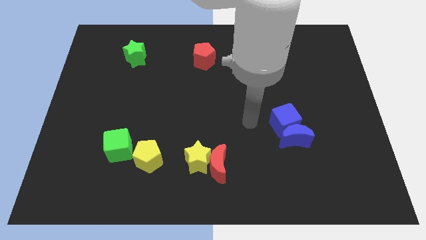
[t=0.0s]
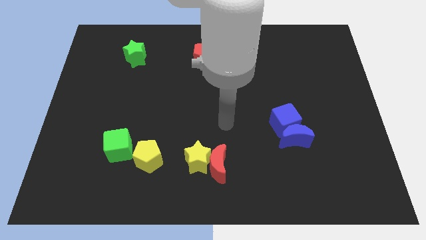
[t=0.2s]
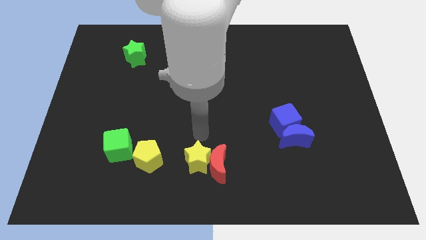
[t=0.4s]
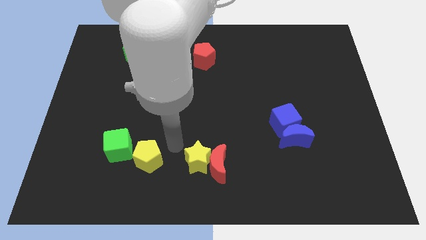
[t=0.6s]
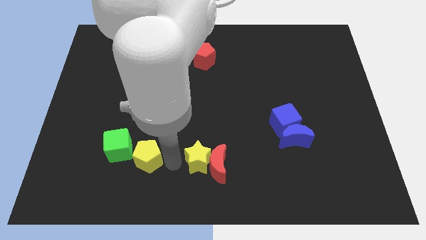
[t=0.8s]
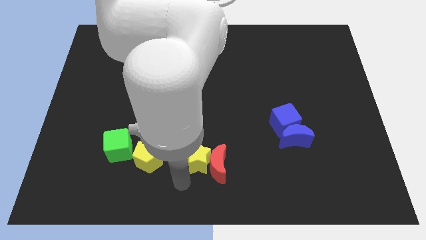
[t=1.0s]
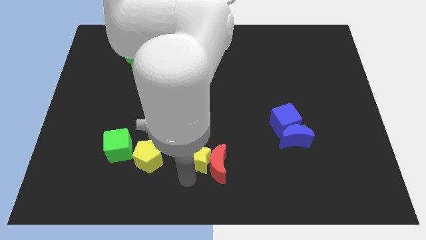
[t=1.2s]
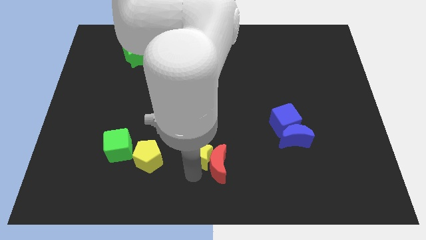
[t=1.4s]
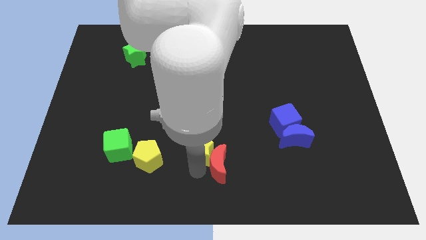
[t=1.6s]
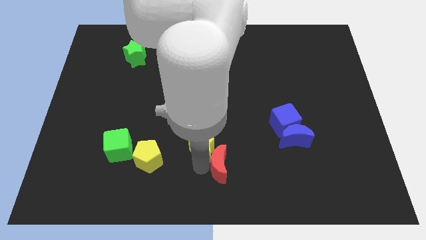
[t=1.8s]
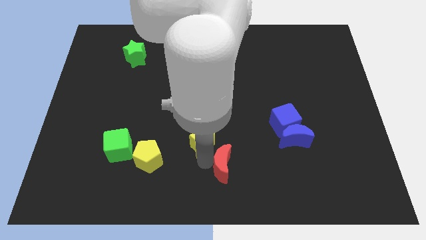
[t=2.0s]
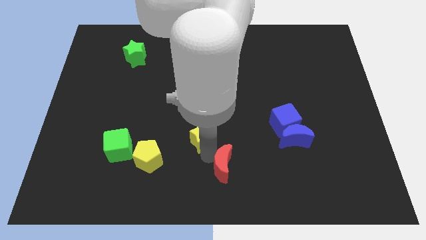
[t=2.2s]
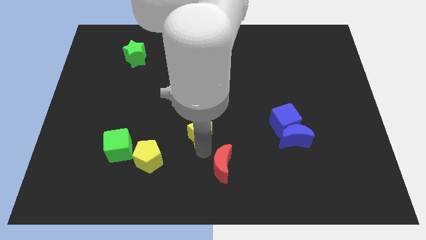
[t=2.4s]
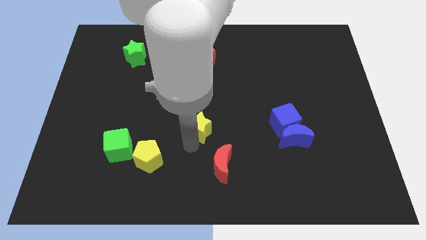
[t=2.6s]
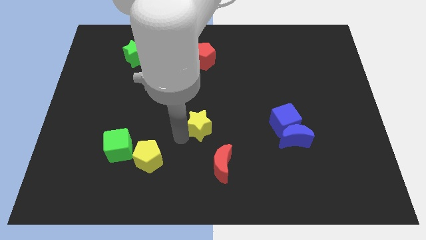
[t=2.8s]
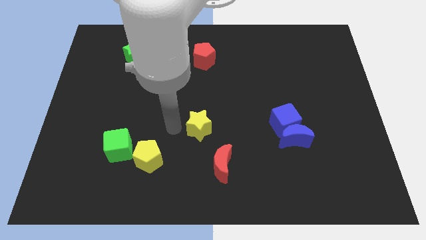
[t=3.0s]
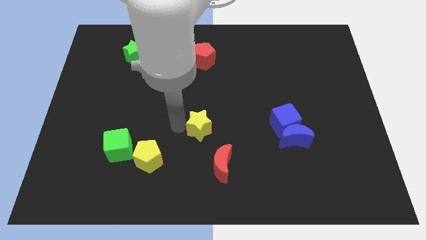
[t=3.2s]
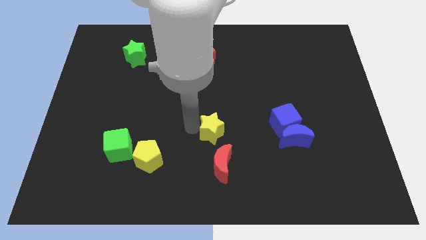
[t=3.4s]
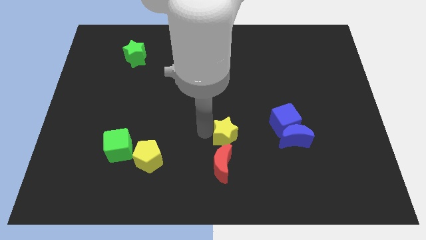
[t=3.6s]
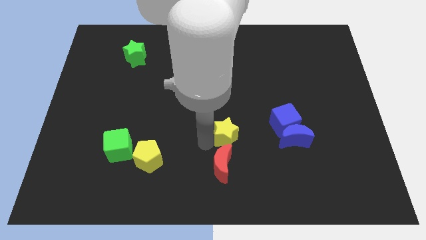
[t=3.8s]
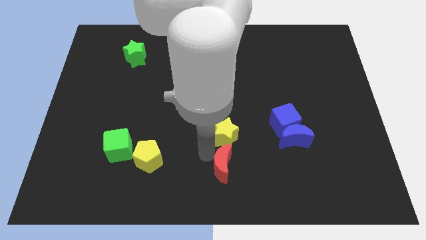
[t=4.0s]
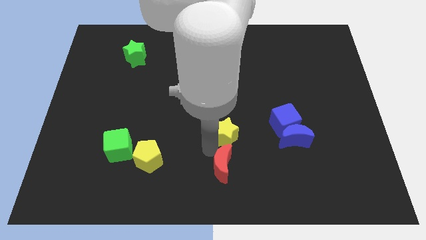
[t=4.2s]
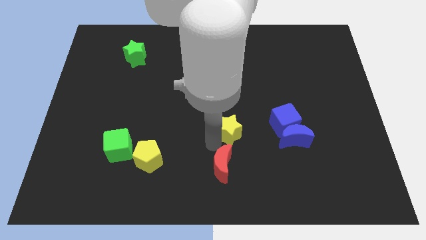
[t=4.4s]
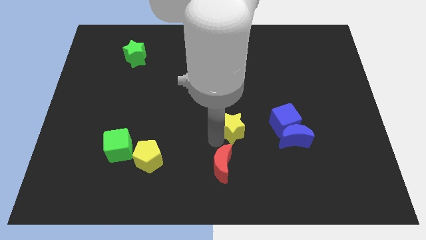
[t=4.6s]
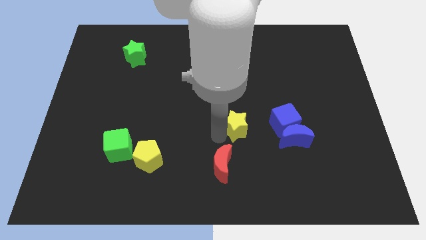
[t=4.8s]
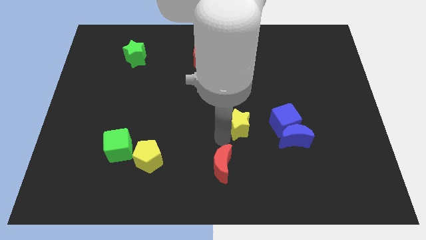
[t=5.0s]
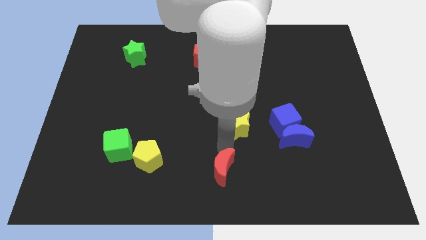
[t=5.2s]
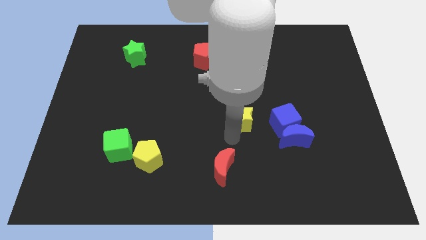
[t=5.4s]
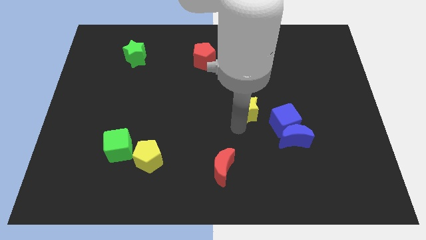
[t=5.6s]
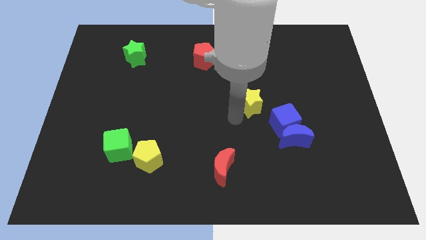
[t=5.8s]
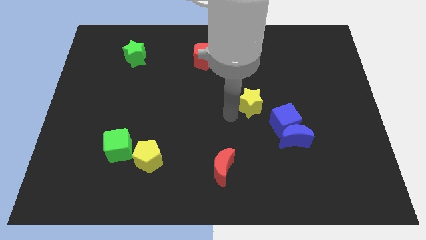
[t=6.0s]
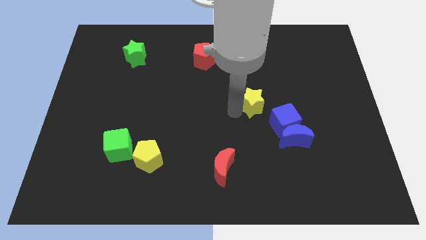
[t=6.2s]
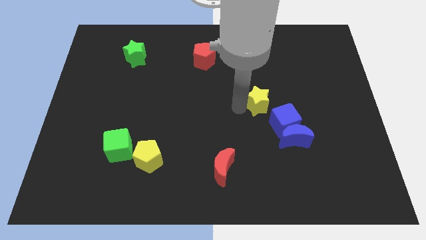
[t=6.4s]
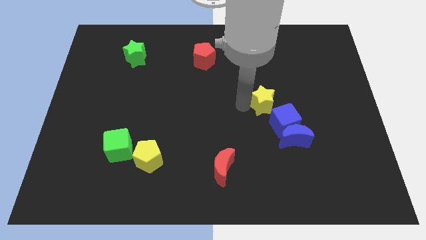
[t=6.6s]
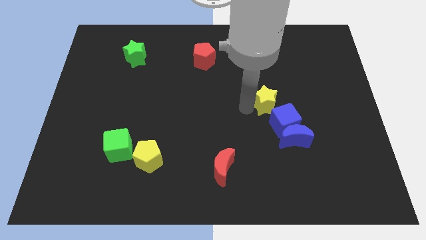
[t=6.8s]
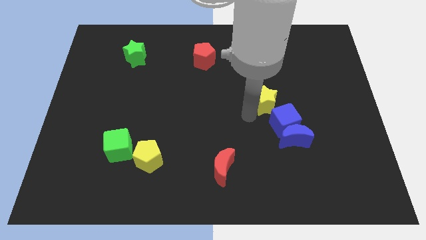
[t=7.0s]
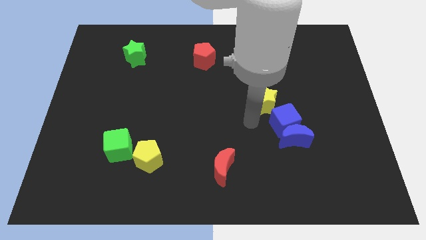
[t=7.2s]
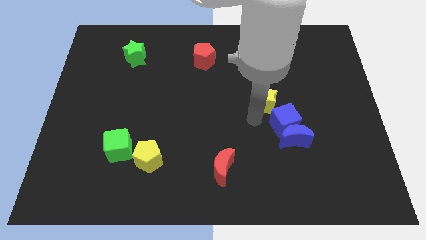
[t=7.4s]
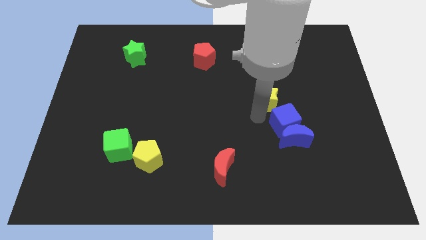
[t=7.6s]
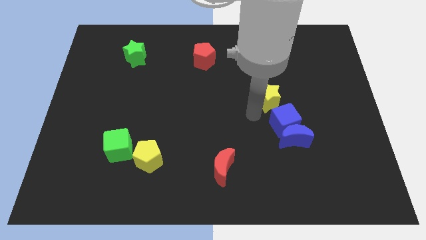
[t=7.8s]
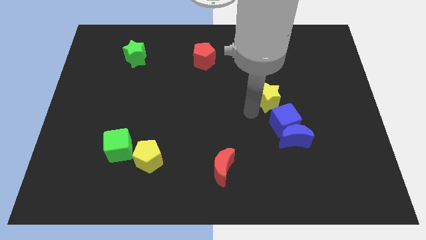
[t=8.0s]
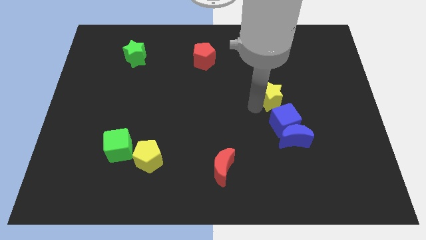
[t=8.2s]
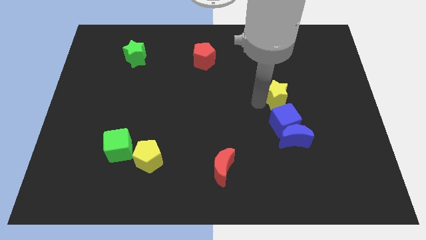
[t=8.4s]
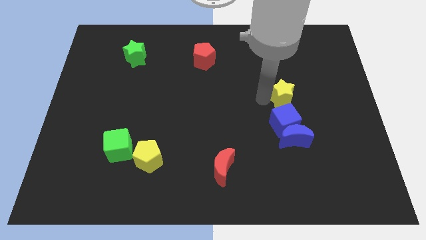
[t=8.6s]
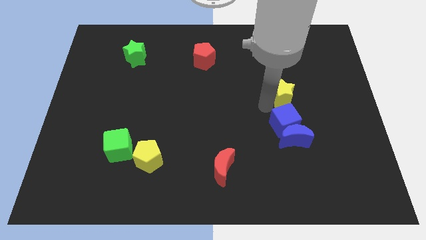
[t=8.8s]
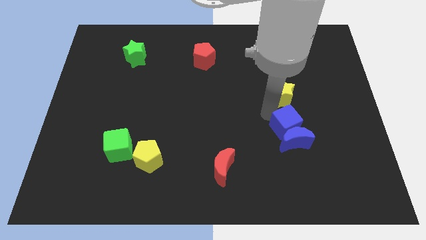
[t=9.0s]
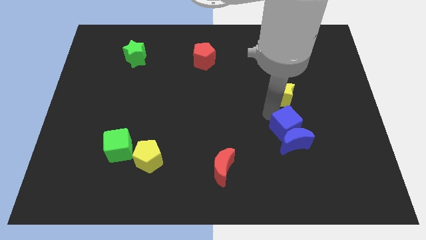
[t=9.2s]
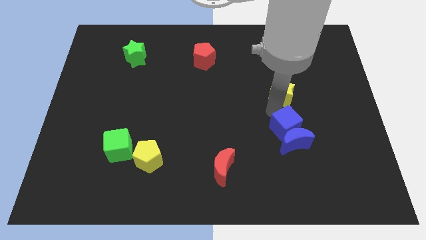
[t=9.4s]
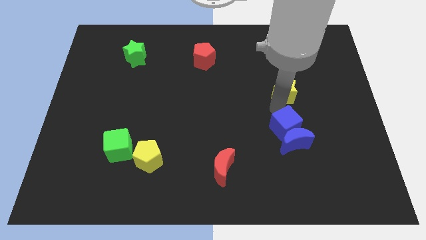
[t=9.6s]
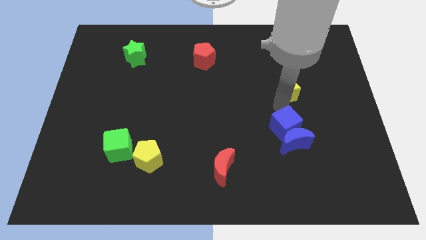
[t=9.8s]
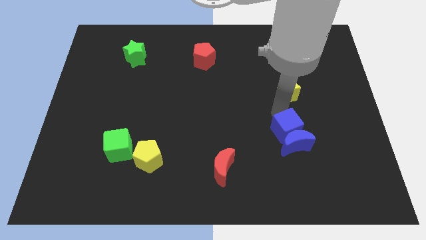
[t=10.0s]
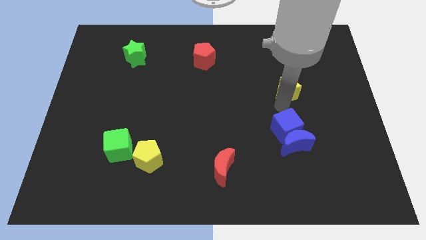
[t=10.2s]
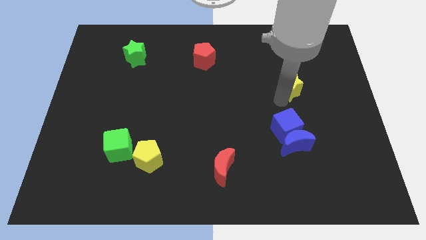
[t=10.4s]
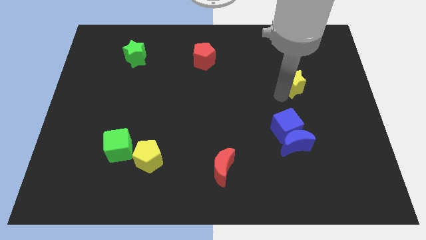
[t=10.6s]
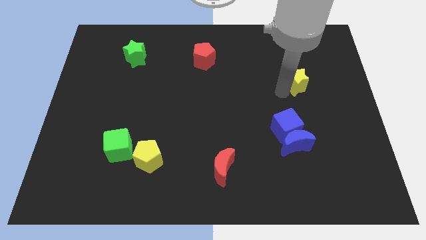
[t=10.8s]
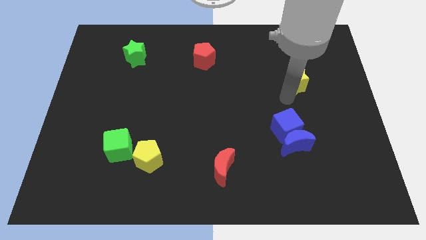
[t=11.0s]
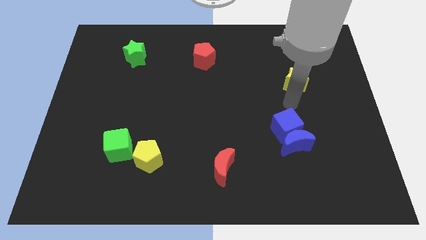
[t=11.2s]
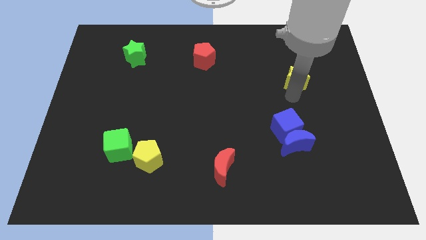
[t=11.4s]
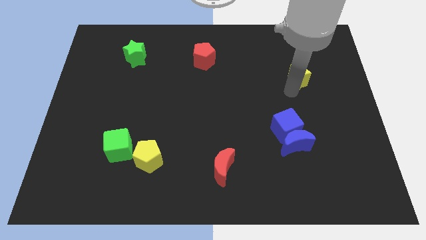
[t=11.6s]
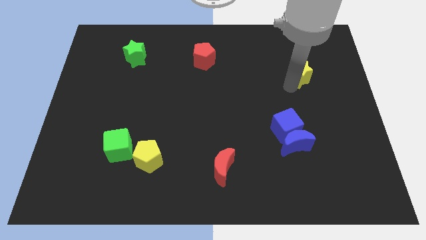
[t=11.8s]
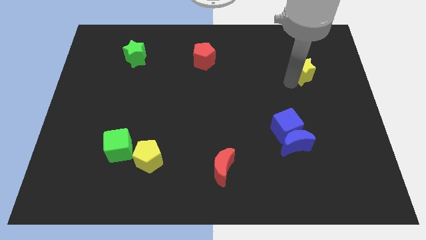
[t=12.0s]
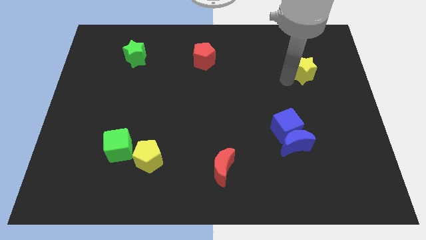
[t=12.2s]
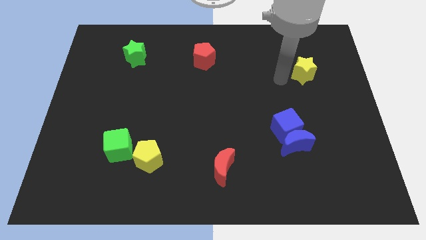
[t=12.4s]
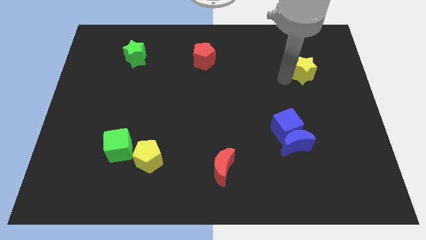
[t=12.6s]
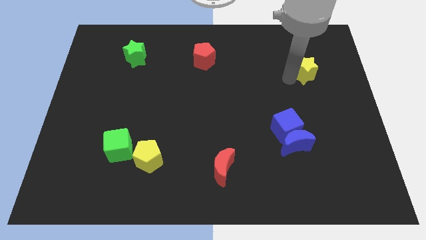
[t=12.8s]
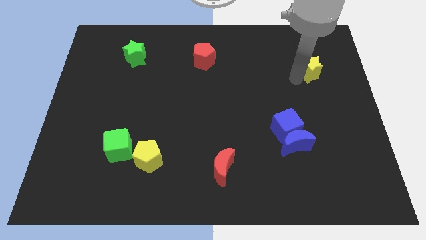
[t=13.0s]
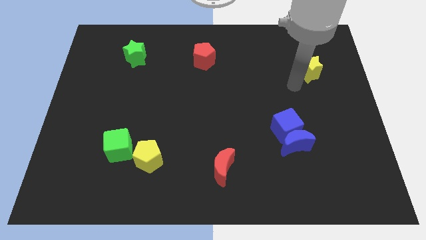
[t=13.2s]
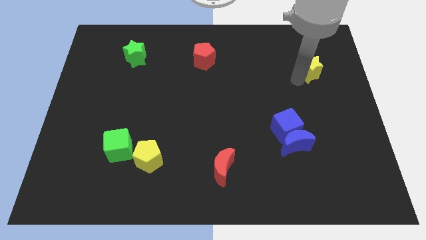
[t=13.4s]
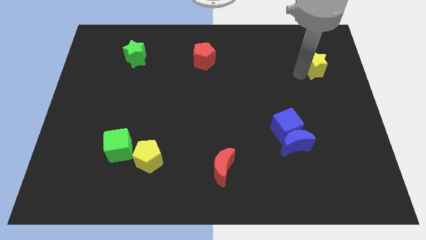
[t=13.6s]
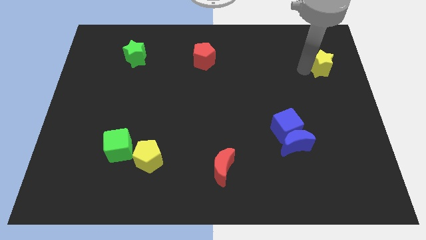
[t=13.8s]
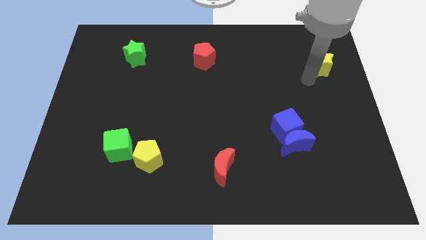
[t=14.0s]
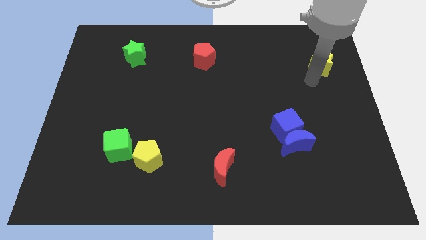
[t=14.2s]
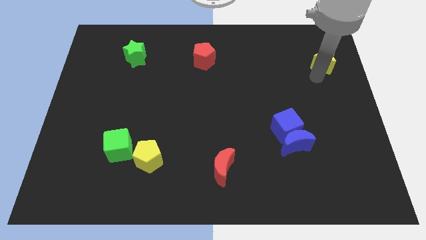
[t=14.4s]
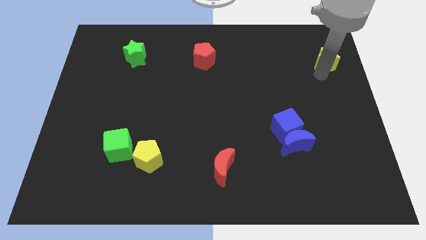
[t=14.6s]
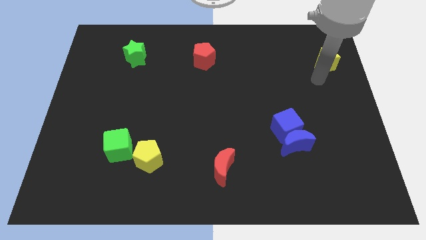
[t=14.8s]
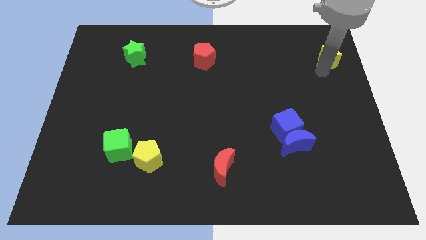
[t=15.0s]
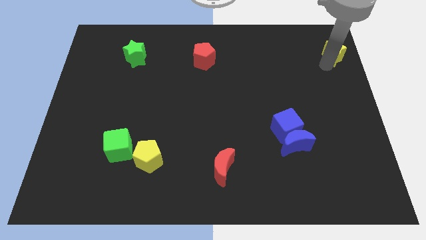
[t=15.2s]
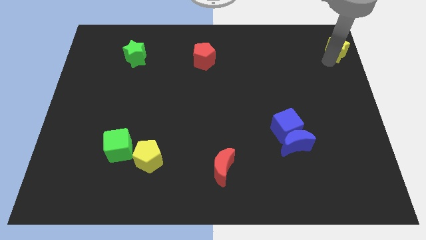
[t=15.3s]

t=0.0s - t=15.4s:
slide the yellow star to the top right
